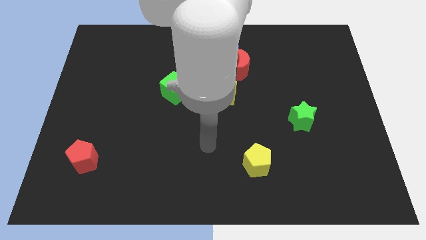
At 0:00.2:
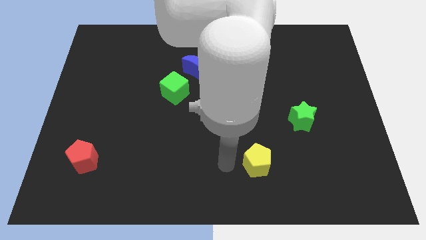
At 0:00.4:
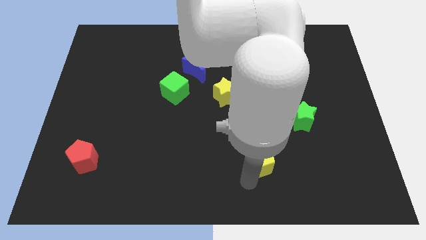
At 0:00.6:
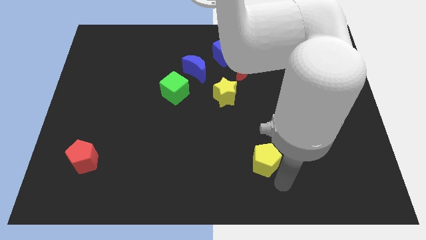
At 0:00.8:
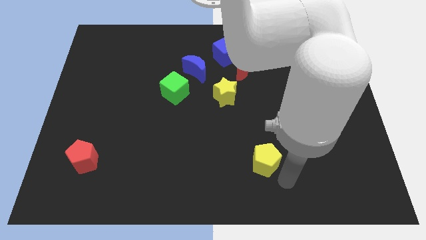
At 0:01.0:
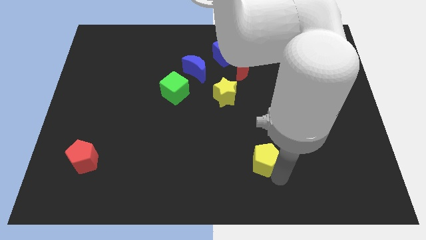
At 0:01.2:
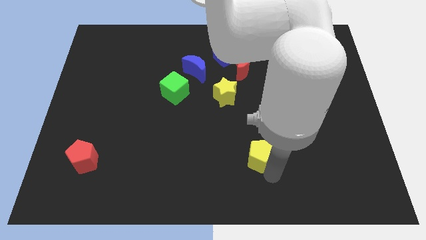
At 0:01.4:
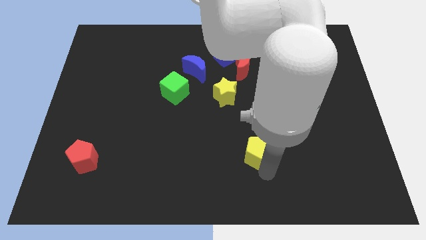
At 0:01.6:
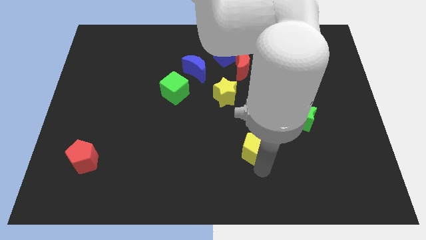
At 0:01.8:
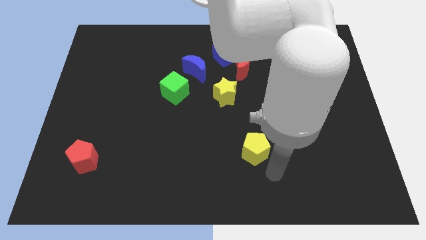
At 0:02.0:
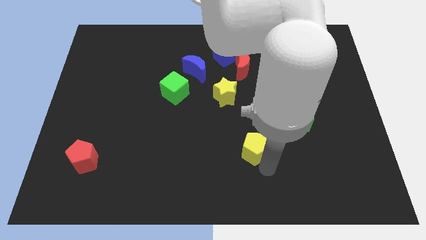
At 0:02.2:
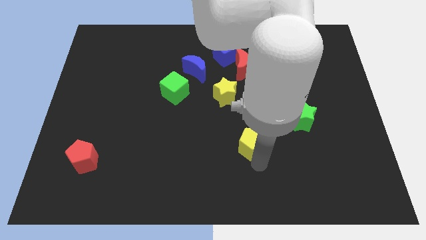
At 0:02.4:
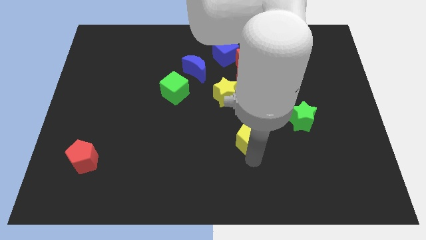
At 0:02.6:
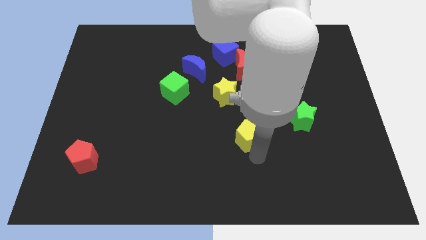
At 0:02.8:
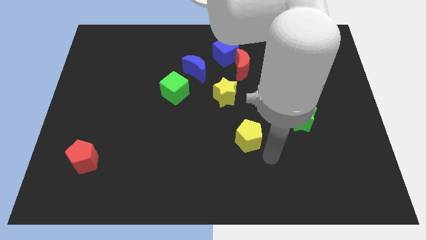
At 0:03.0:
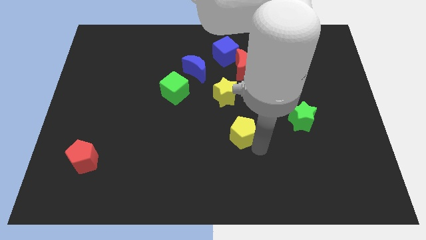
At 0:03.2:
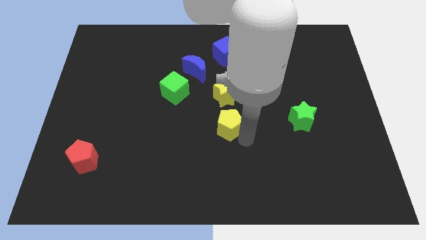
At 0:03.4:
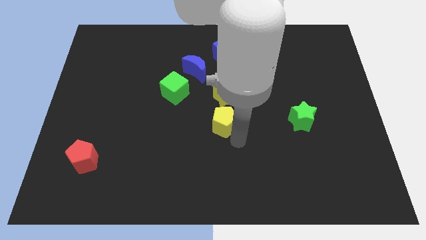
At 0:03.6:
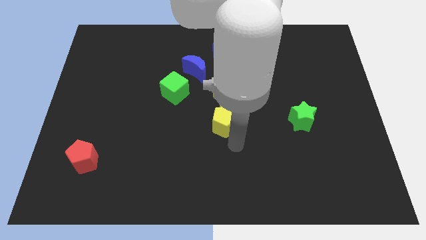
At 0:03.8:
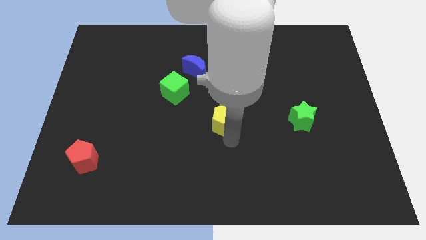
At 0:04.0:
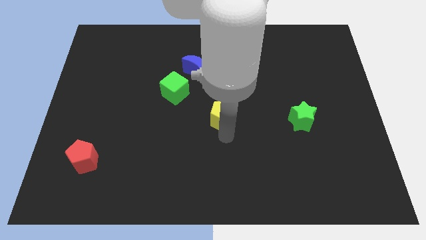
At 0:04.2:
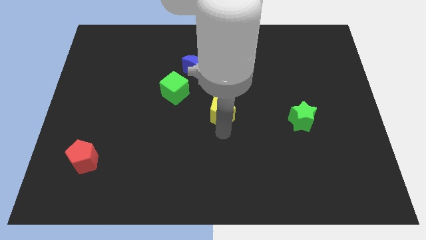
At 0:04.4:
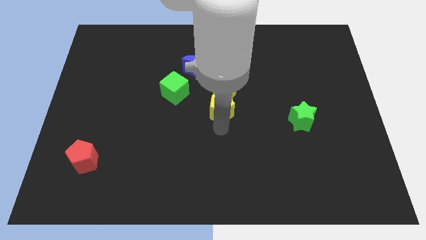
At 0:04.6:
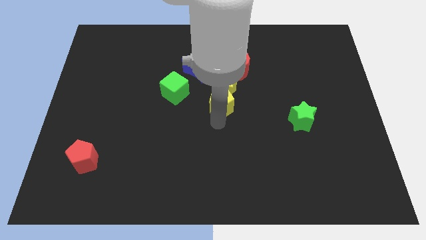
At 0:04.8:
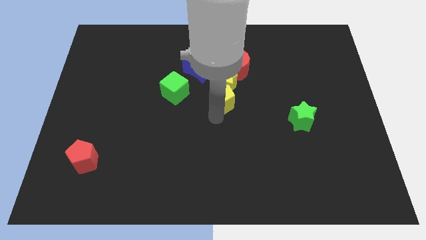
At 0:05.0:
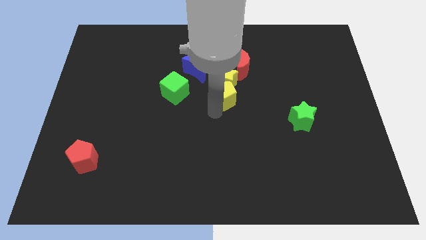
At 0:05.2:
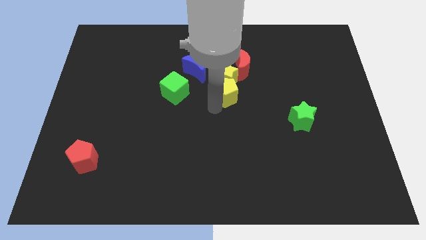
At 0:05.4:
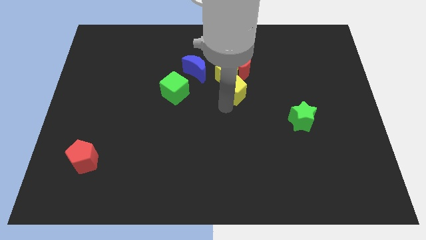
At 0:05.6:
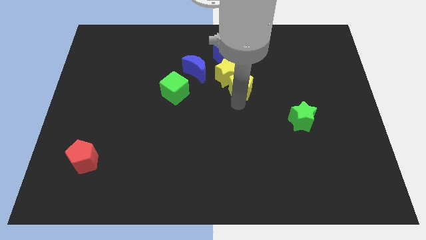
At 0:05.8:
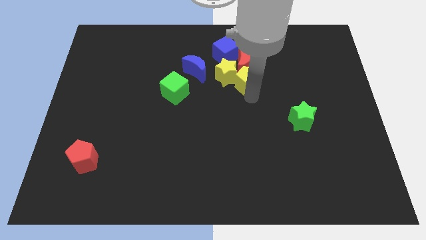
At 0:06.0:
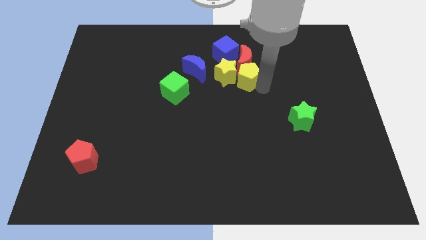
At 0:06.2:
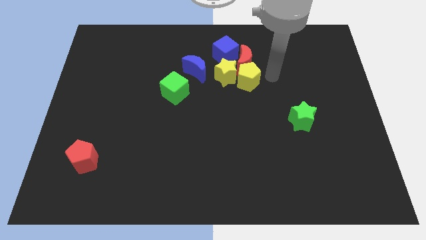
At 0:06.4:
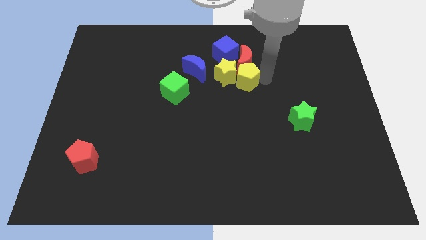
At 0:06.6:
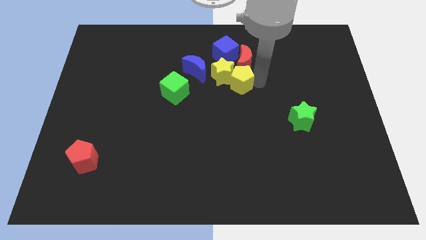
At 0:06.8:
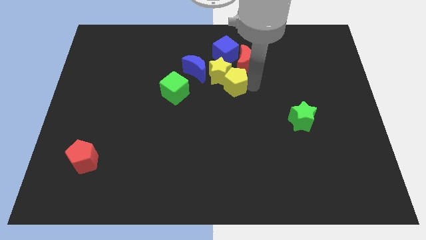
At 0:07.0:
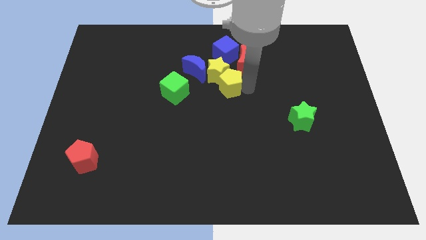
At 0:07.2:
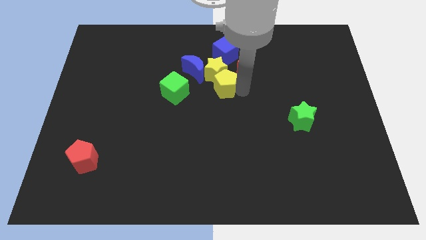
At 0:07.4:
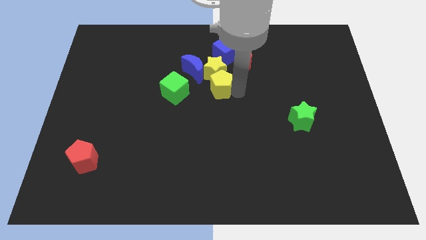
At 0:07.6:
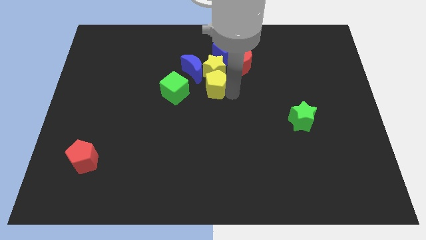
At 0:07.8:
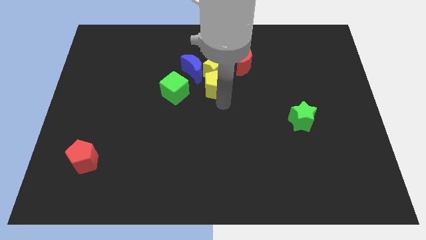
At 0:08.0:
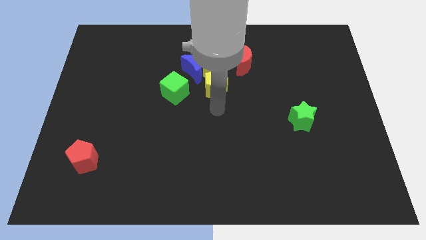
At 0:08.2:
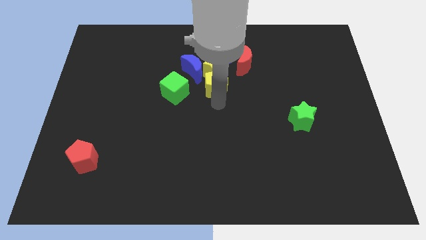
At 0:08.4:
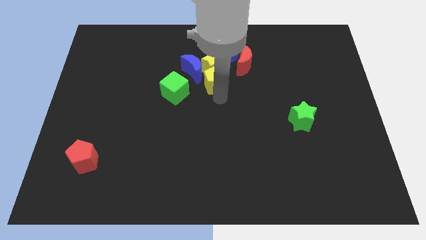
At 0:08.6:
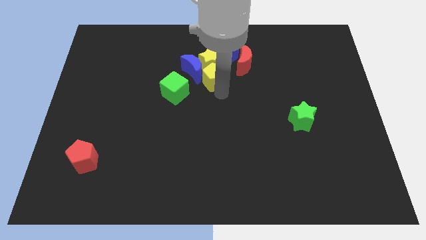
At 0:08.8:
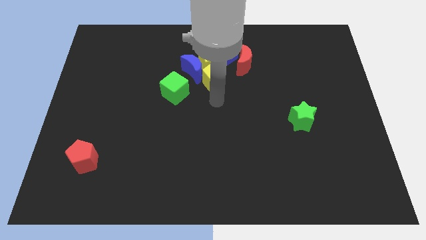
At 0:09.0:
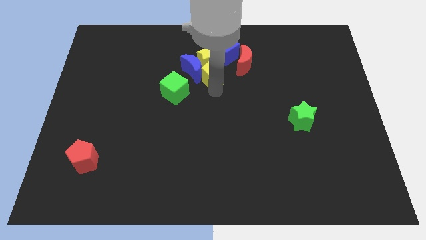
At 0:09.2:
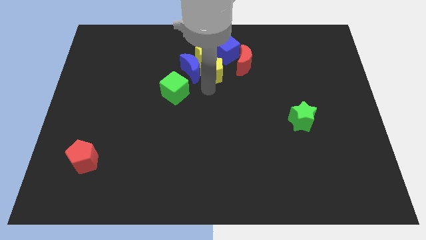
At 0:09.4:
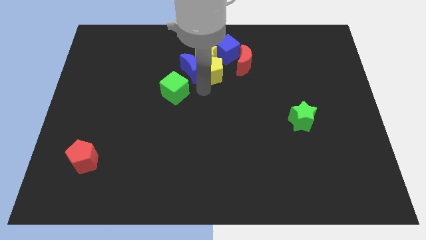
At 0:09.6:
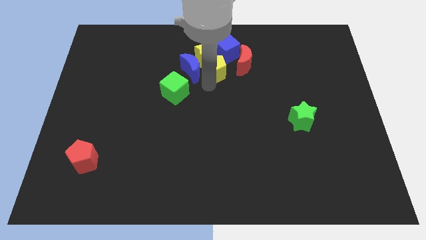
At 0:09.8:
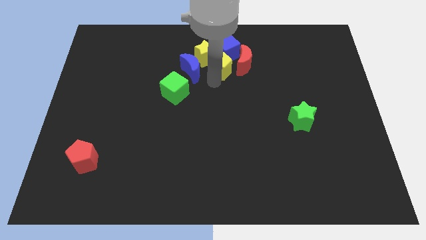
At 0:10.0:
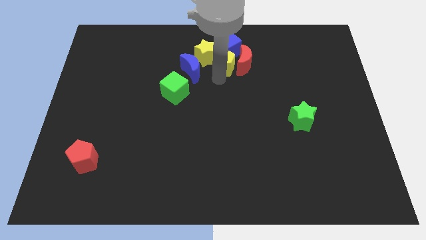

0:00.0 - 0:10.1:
slide the yellow pentagon towards the blue cube
